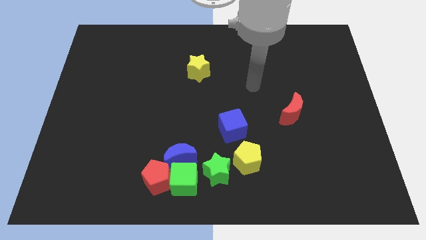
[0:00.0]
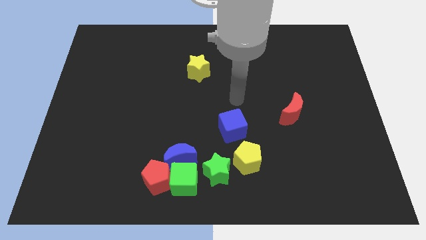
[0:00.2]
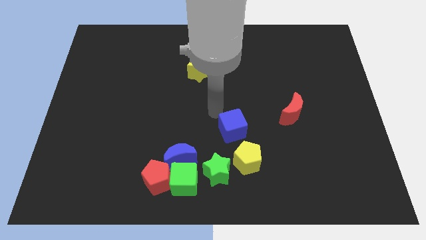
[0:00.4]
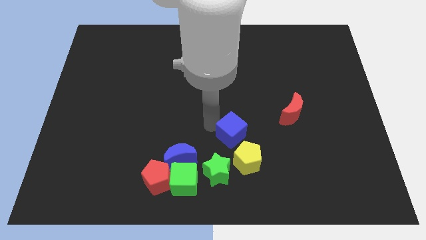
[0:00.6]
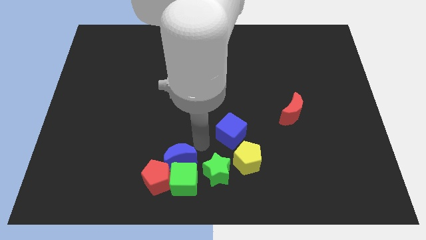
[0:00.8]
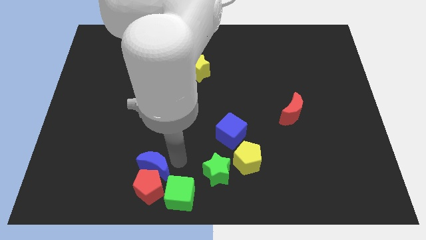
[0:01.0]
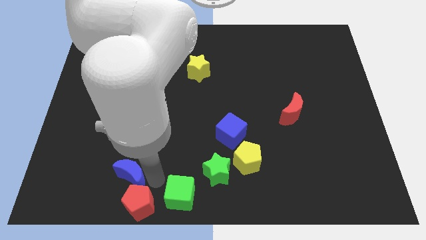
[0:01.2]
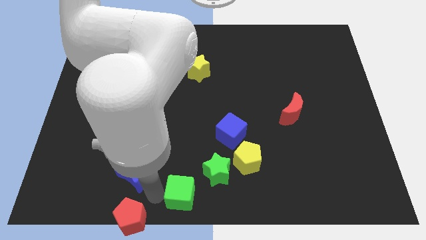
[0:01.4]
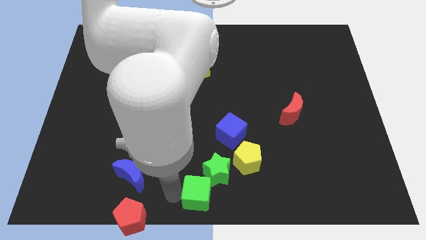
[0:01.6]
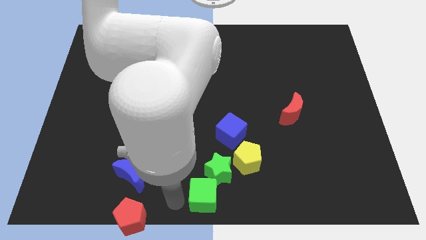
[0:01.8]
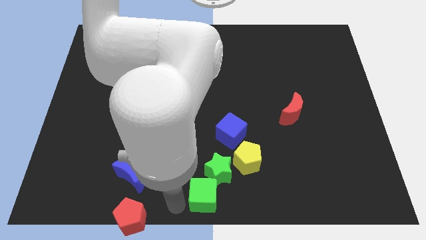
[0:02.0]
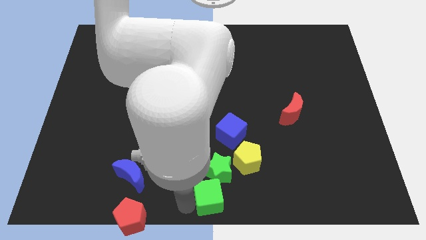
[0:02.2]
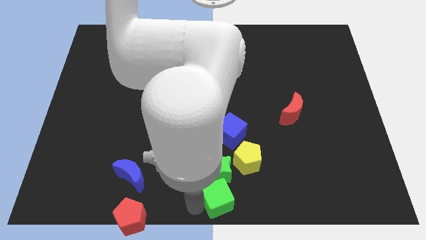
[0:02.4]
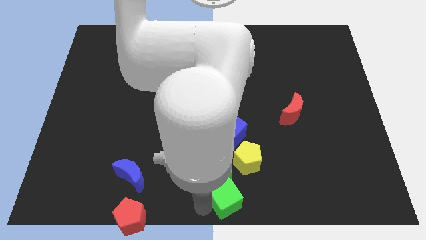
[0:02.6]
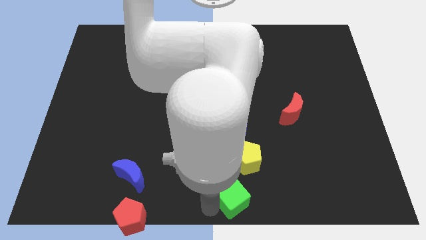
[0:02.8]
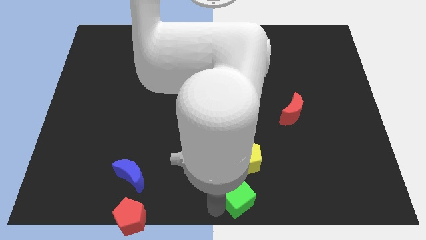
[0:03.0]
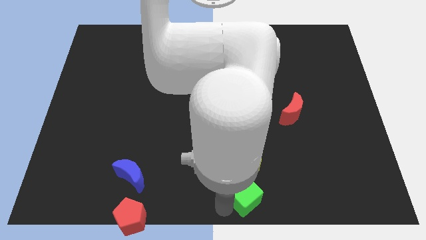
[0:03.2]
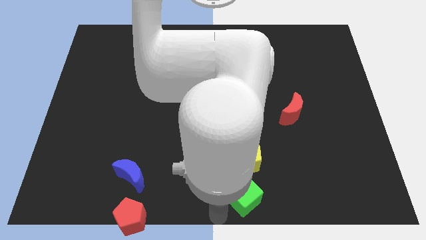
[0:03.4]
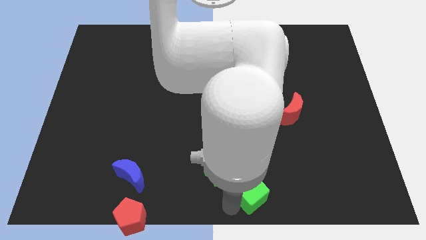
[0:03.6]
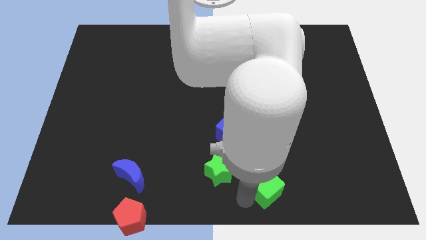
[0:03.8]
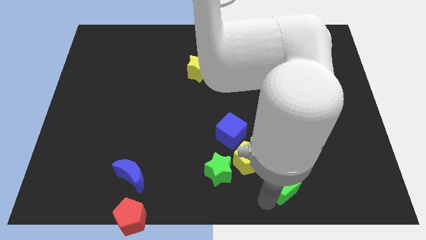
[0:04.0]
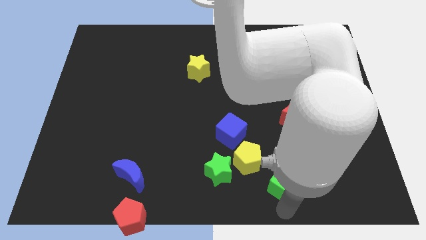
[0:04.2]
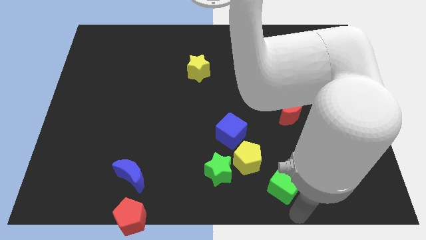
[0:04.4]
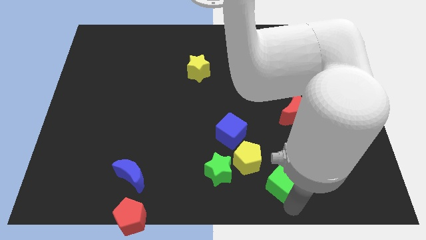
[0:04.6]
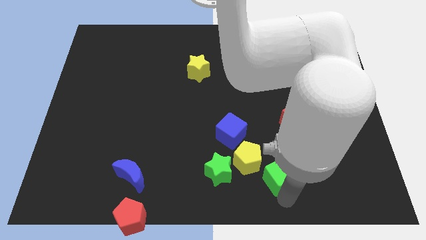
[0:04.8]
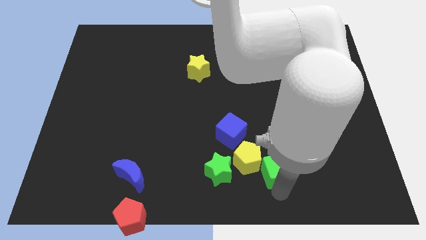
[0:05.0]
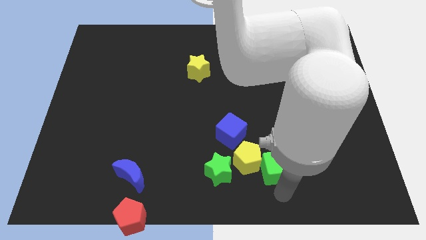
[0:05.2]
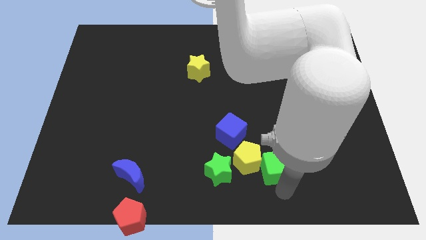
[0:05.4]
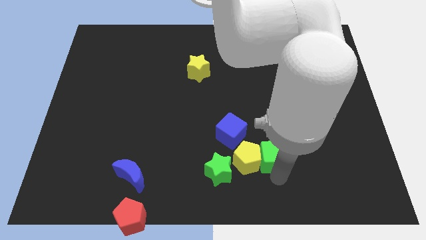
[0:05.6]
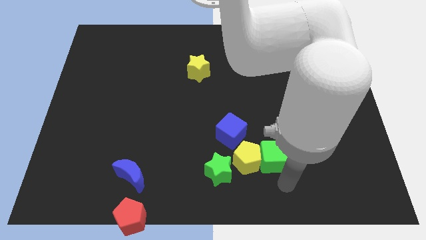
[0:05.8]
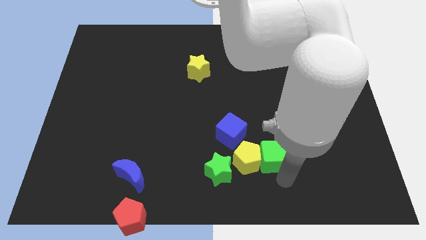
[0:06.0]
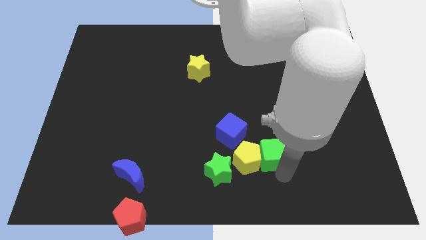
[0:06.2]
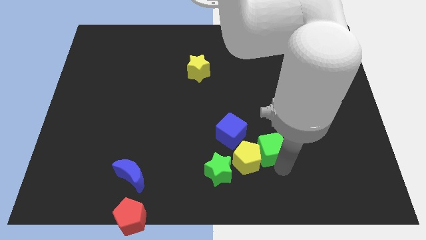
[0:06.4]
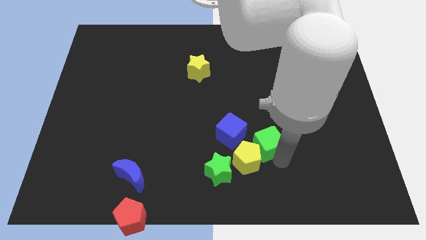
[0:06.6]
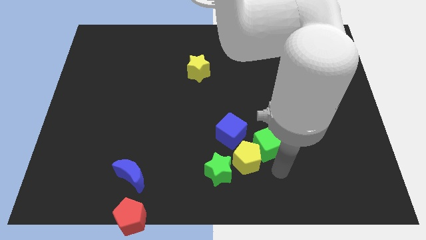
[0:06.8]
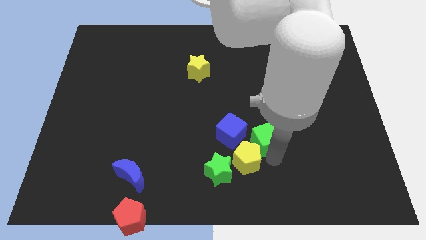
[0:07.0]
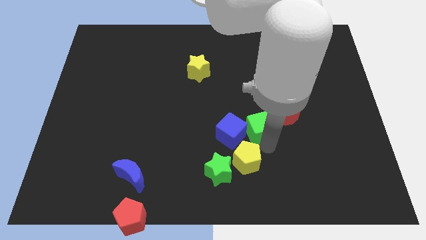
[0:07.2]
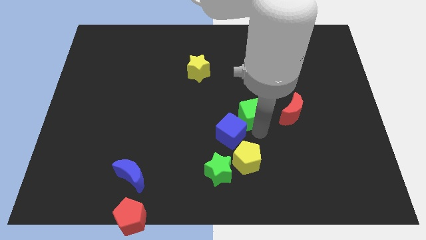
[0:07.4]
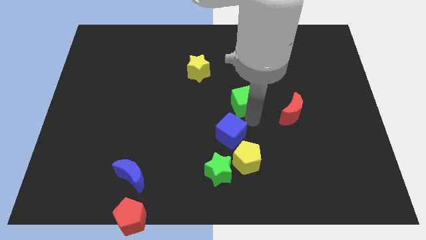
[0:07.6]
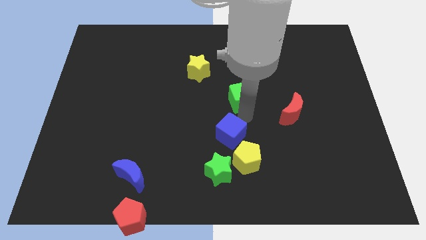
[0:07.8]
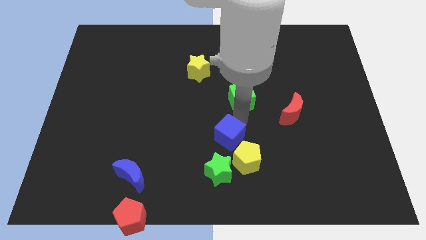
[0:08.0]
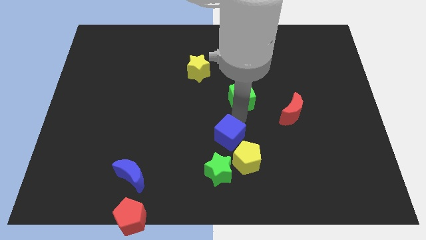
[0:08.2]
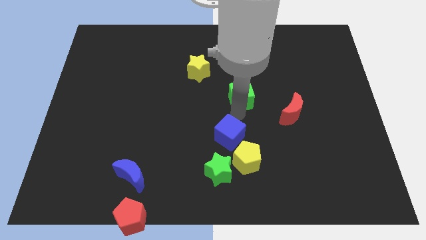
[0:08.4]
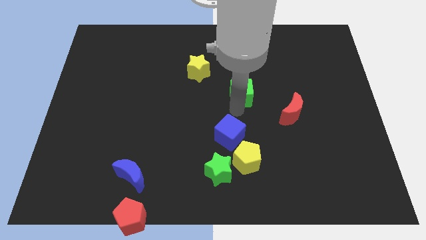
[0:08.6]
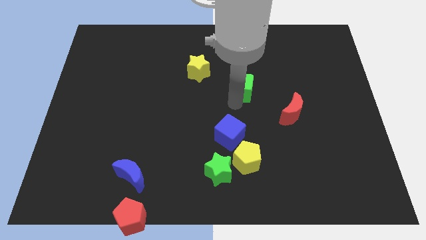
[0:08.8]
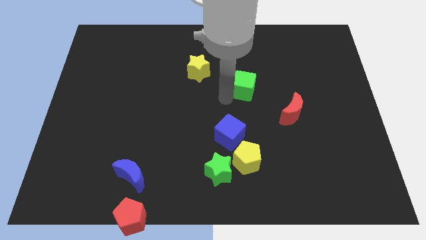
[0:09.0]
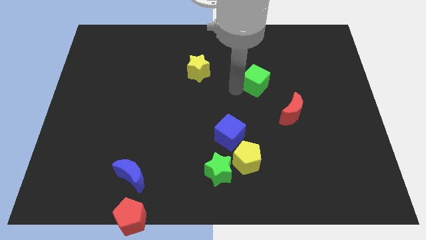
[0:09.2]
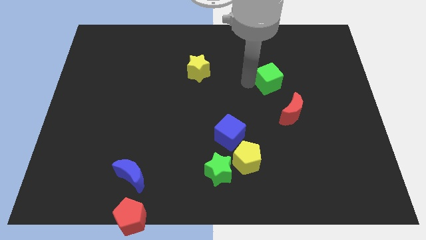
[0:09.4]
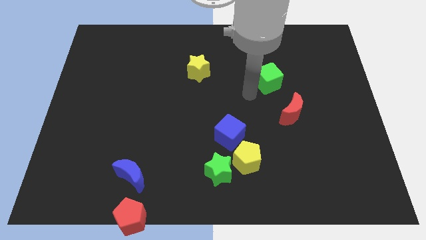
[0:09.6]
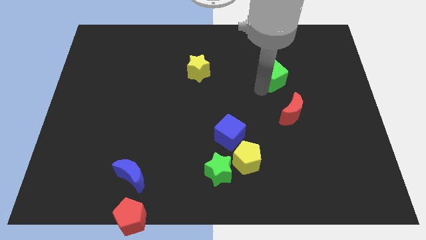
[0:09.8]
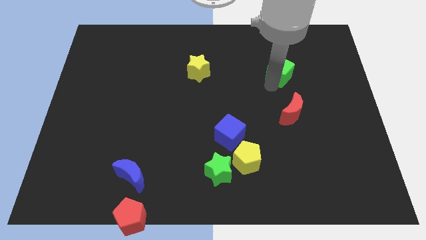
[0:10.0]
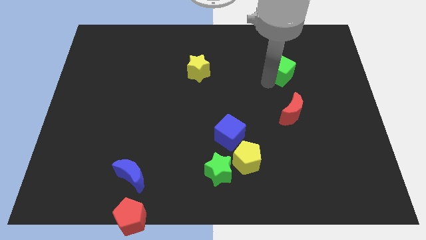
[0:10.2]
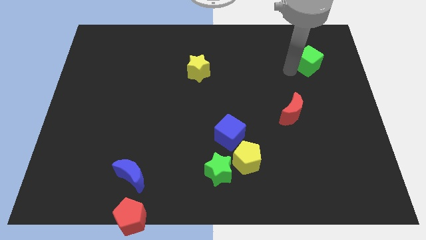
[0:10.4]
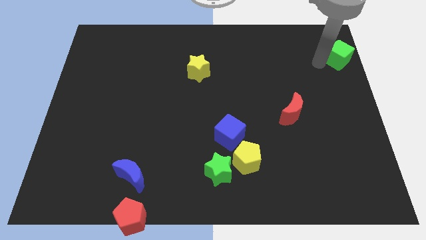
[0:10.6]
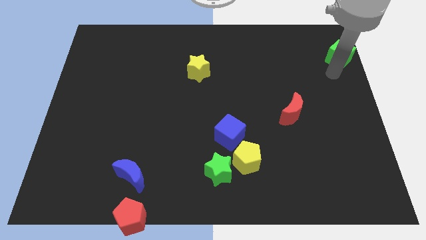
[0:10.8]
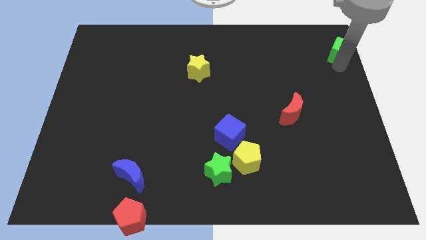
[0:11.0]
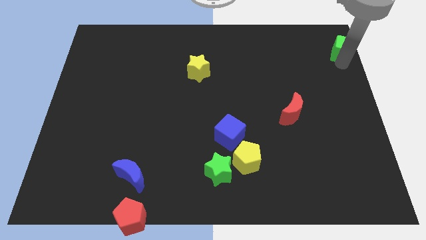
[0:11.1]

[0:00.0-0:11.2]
push the green cube to the top right

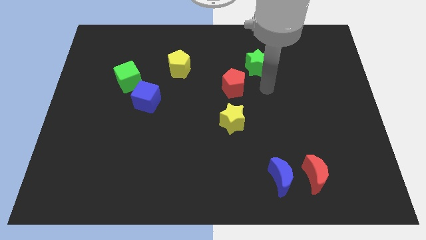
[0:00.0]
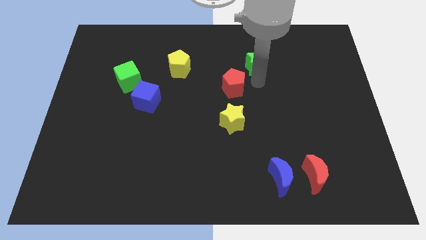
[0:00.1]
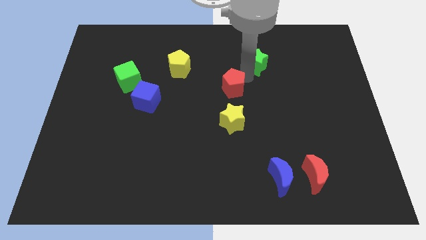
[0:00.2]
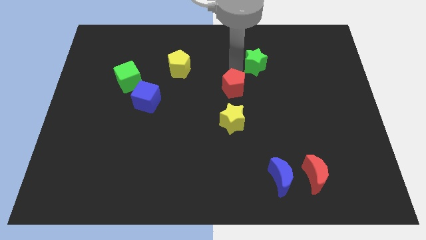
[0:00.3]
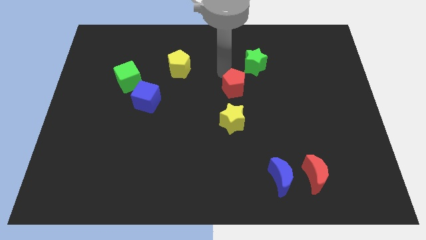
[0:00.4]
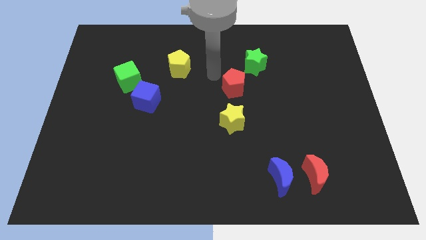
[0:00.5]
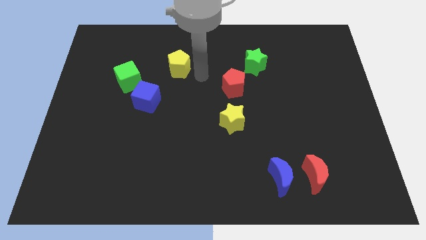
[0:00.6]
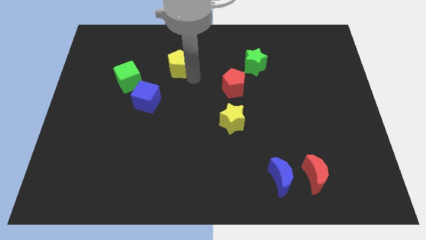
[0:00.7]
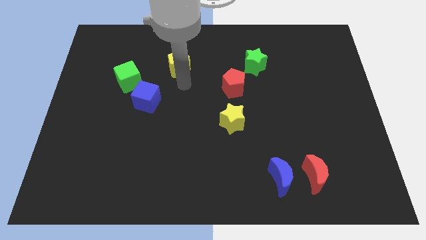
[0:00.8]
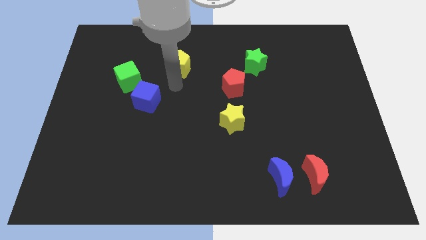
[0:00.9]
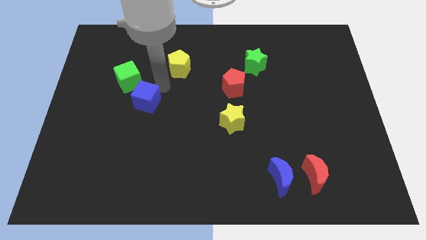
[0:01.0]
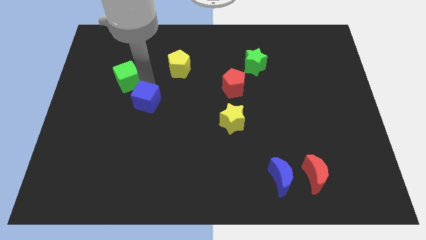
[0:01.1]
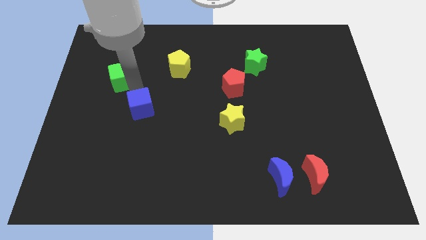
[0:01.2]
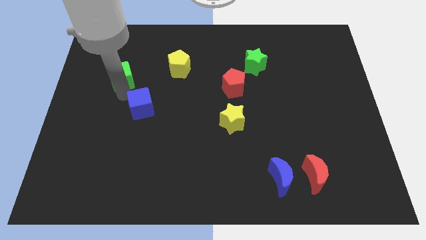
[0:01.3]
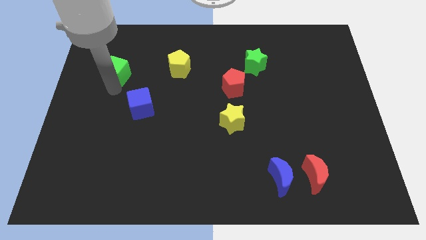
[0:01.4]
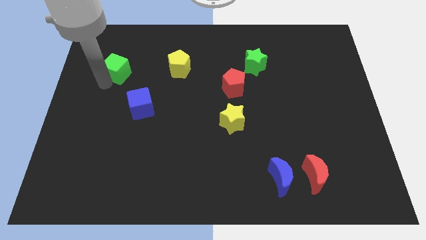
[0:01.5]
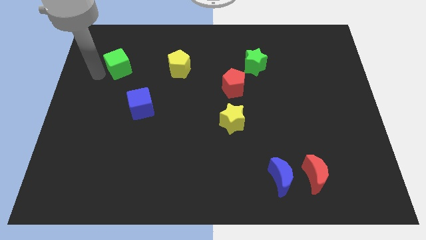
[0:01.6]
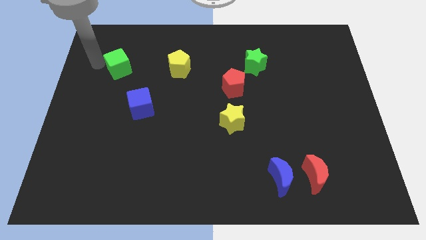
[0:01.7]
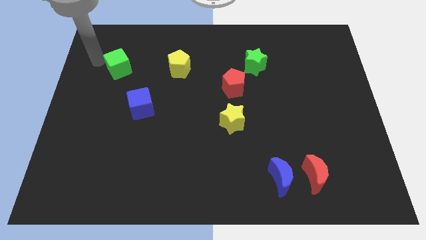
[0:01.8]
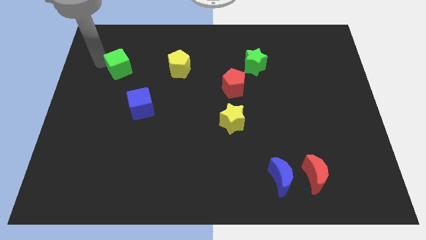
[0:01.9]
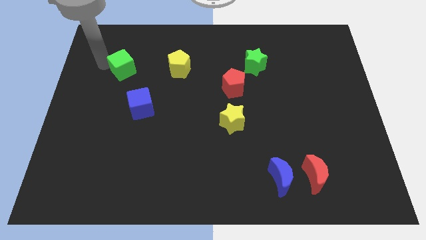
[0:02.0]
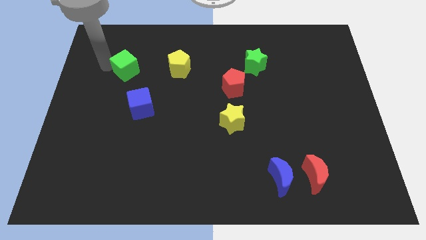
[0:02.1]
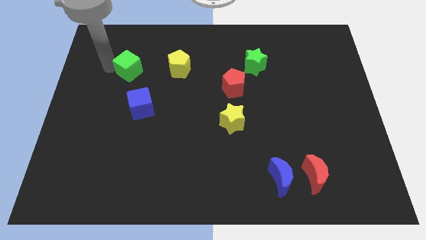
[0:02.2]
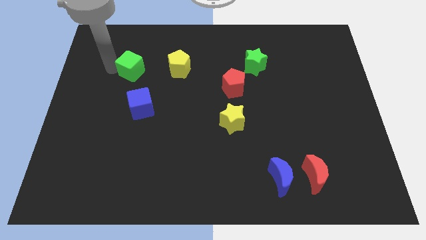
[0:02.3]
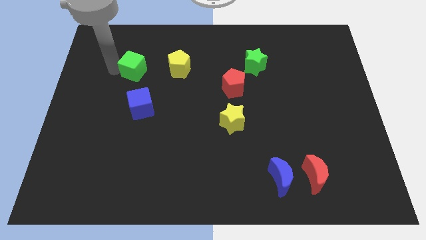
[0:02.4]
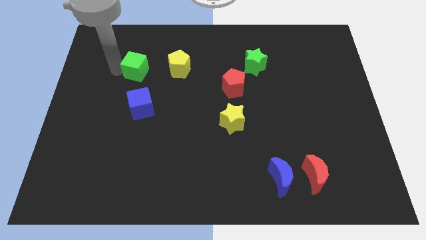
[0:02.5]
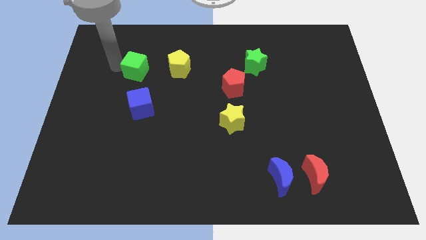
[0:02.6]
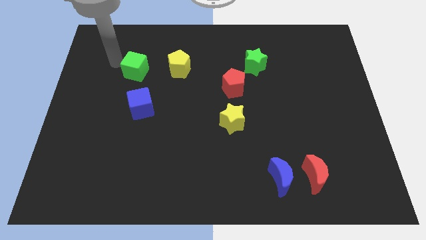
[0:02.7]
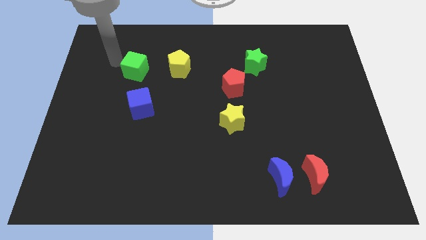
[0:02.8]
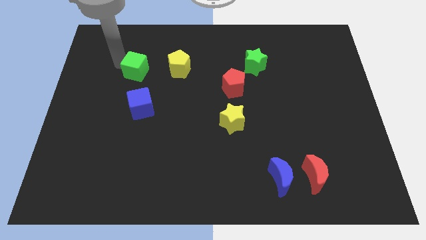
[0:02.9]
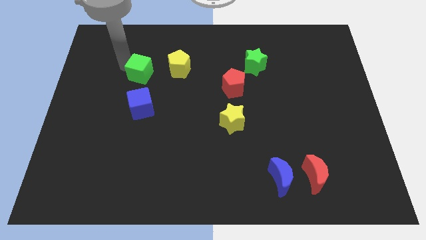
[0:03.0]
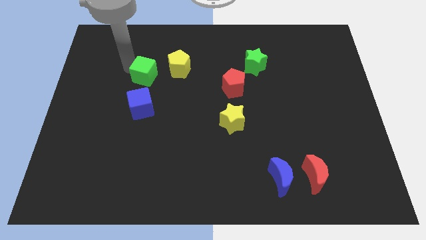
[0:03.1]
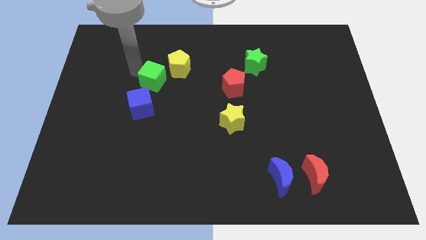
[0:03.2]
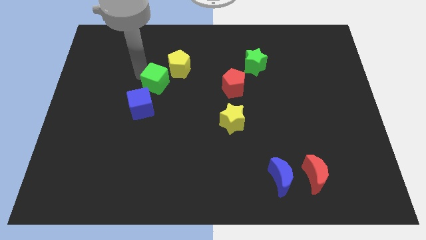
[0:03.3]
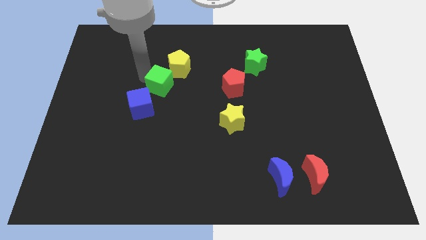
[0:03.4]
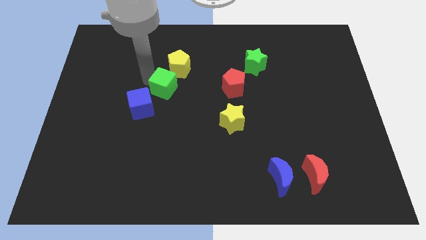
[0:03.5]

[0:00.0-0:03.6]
put the green cube to the center
